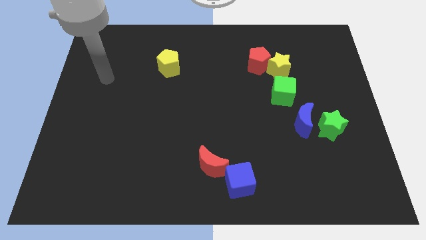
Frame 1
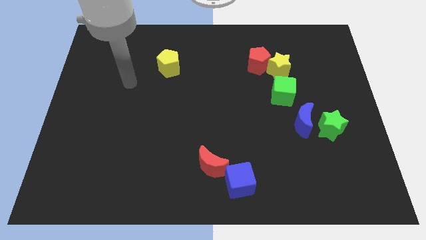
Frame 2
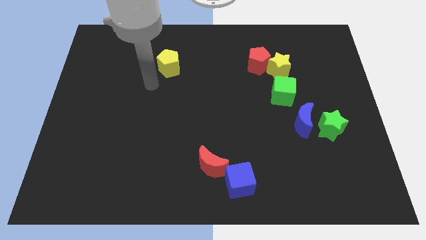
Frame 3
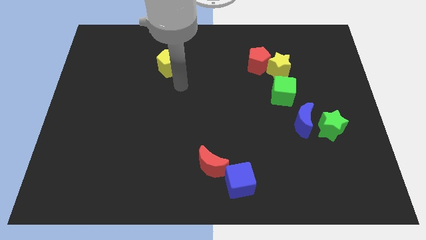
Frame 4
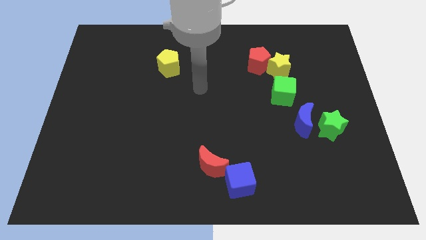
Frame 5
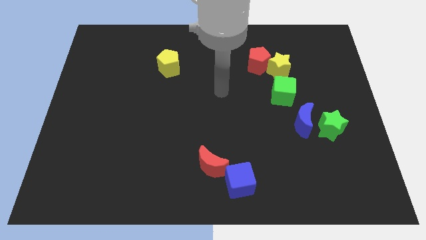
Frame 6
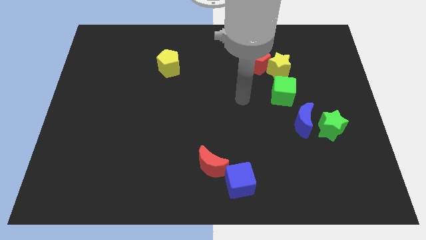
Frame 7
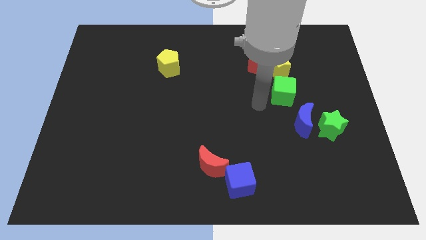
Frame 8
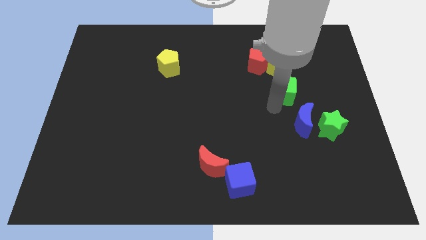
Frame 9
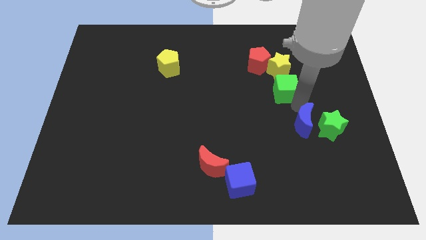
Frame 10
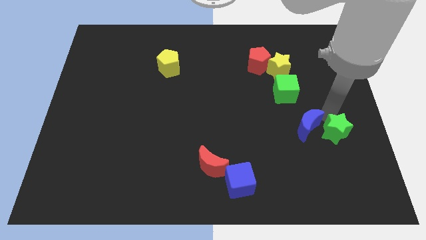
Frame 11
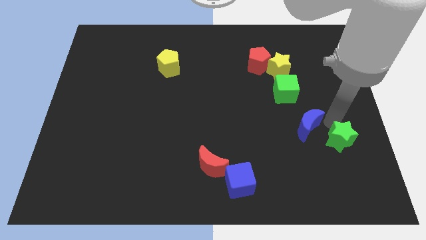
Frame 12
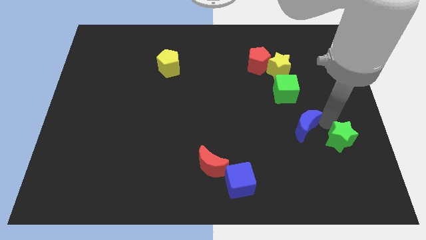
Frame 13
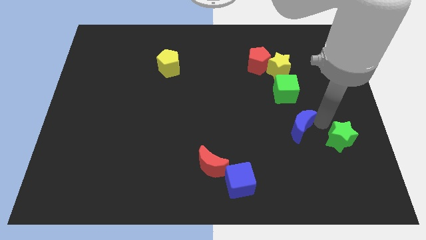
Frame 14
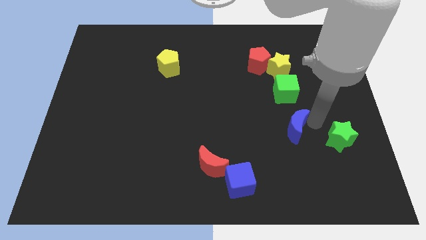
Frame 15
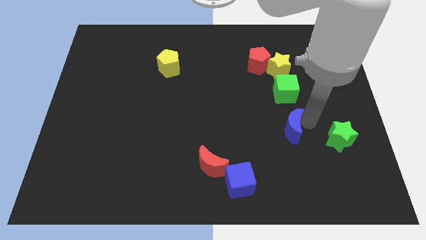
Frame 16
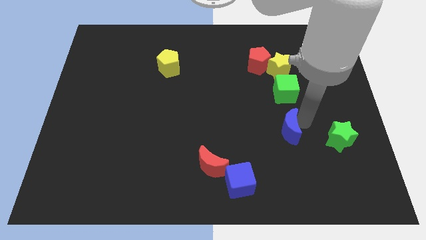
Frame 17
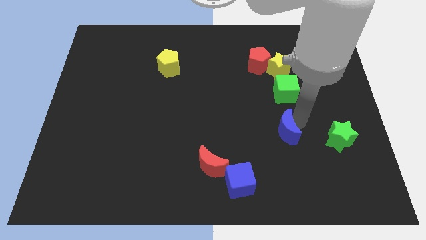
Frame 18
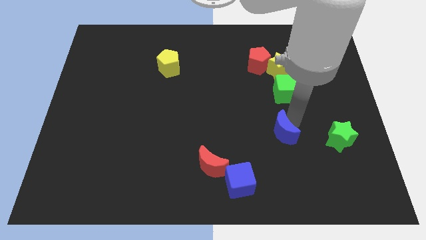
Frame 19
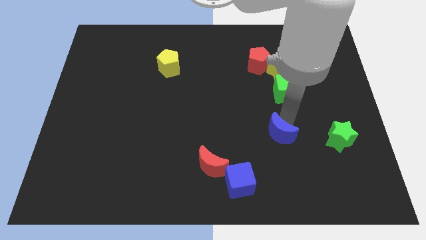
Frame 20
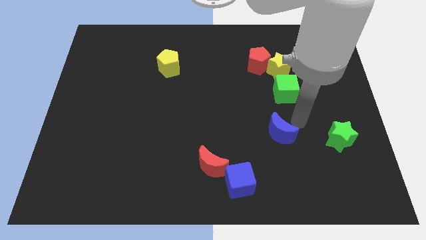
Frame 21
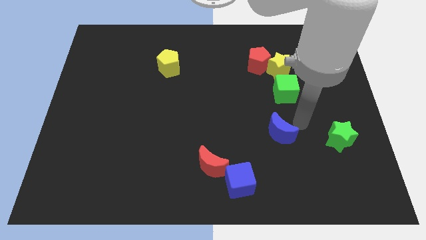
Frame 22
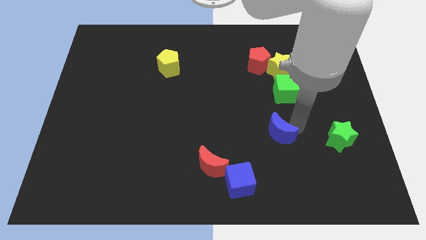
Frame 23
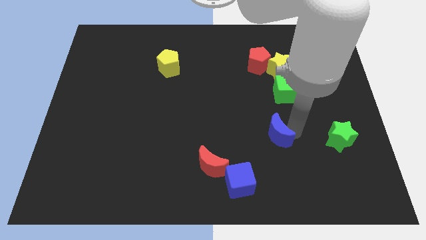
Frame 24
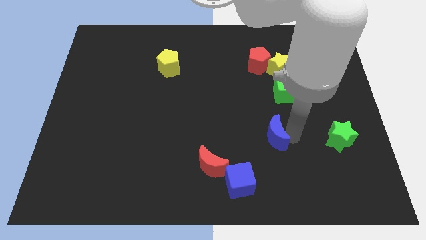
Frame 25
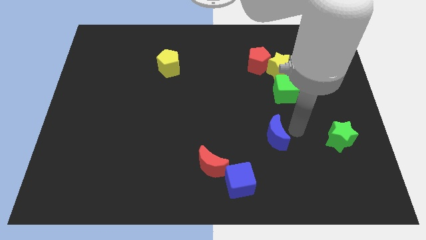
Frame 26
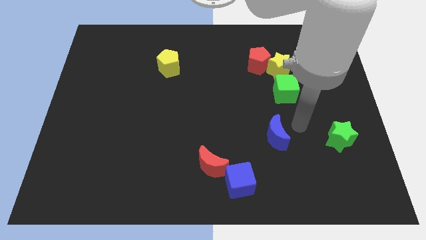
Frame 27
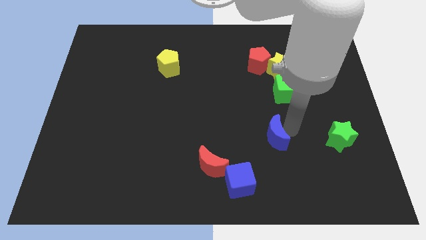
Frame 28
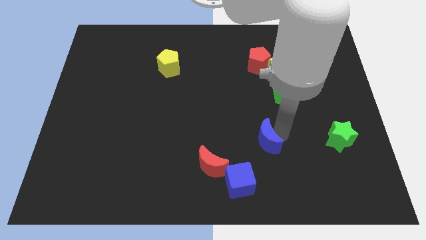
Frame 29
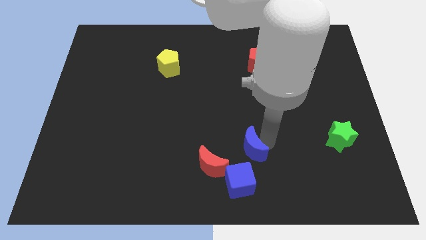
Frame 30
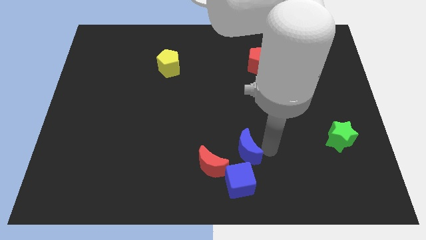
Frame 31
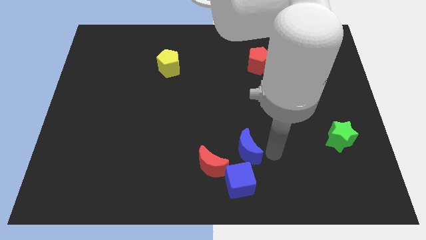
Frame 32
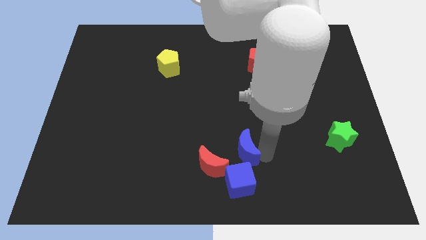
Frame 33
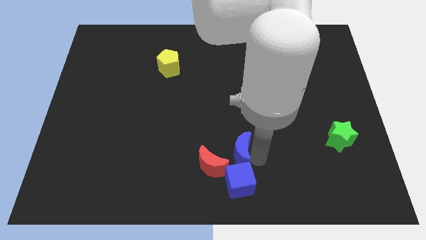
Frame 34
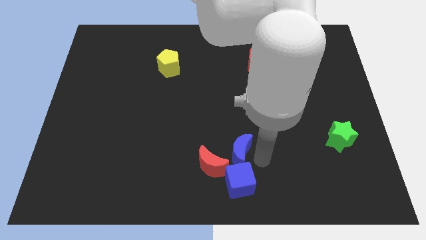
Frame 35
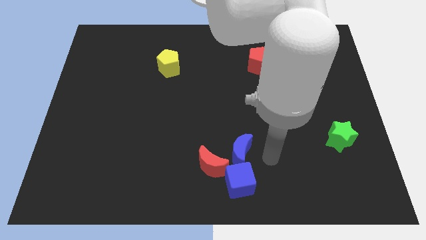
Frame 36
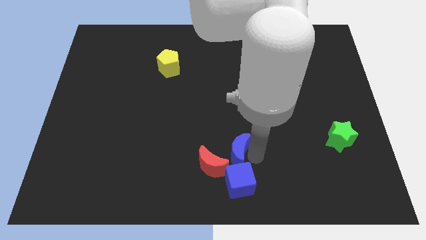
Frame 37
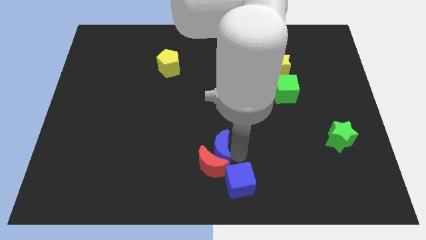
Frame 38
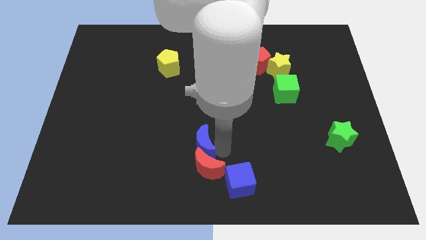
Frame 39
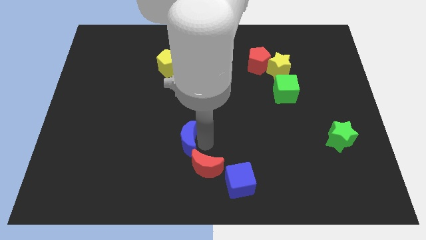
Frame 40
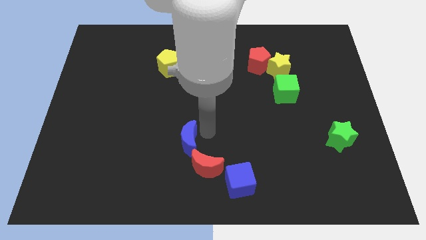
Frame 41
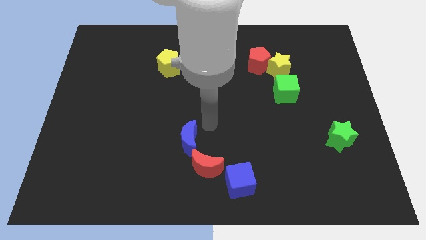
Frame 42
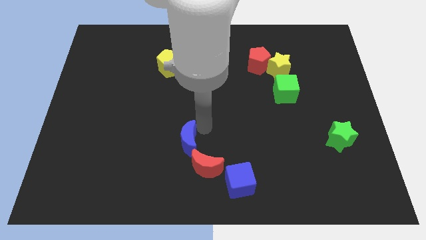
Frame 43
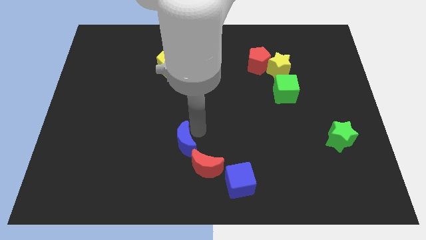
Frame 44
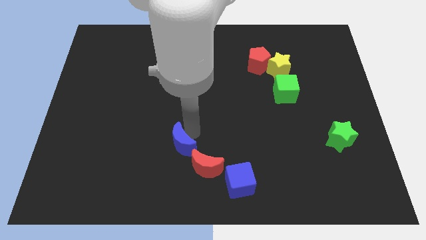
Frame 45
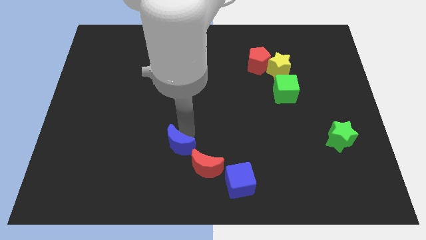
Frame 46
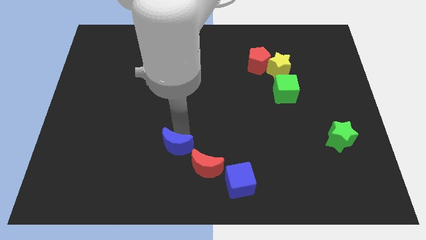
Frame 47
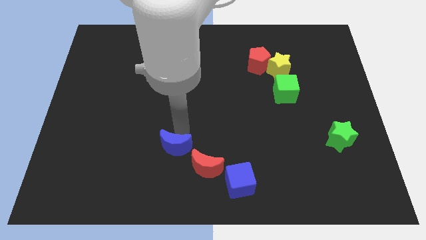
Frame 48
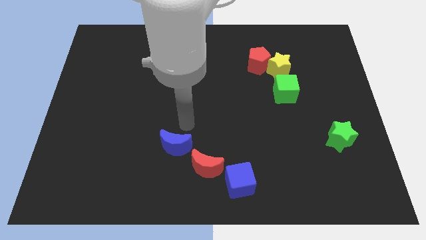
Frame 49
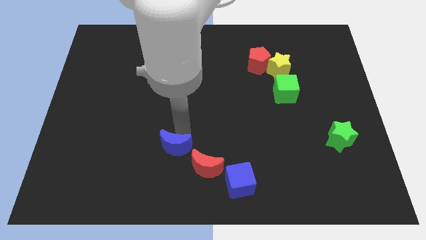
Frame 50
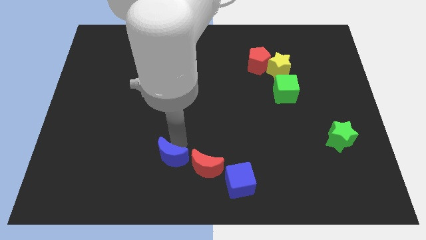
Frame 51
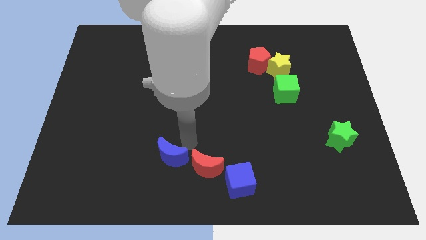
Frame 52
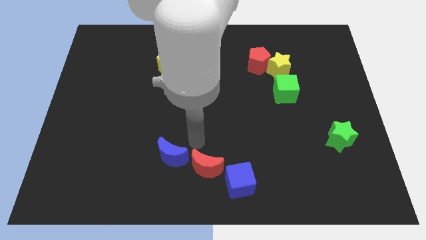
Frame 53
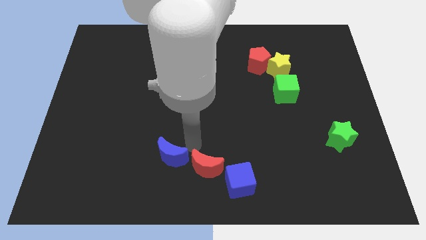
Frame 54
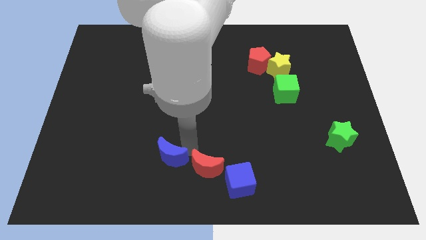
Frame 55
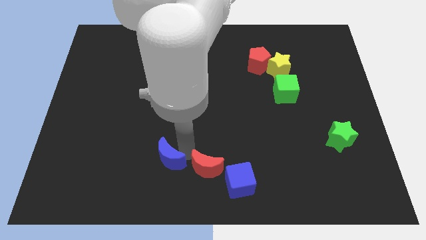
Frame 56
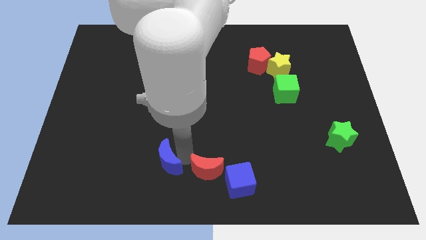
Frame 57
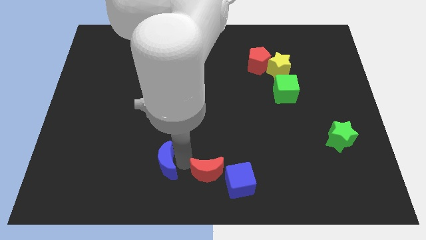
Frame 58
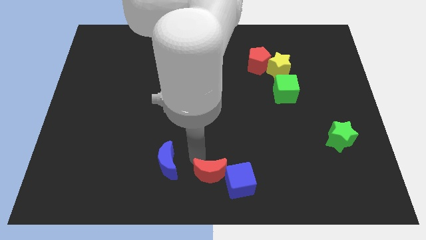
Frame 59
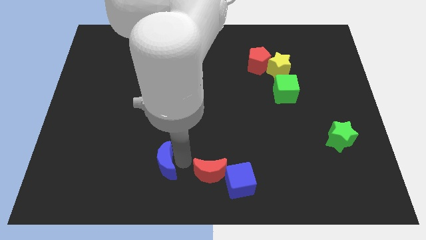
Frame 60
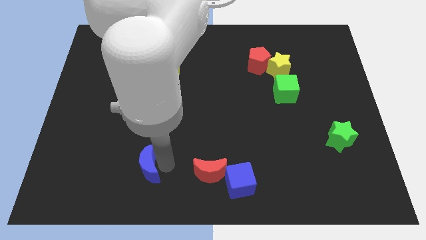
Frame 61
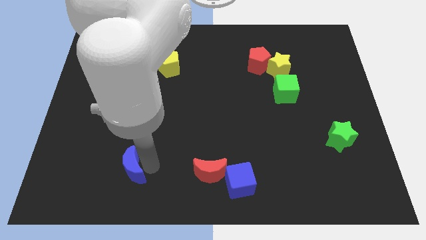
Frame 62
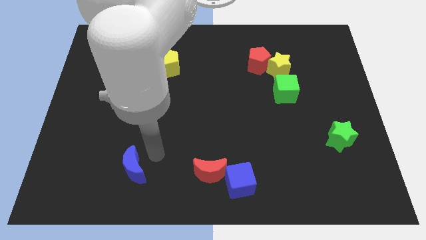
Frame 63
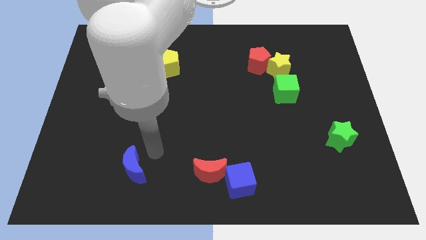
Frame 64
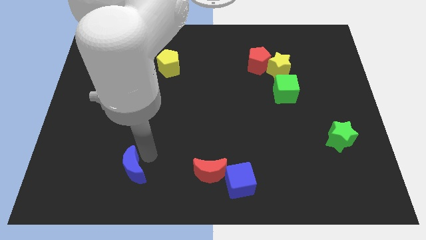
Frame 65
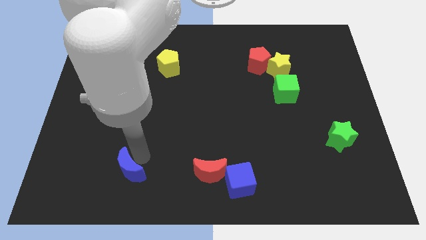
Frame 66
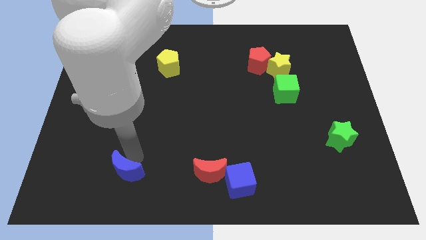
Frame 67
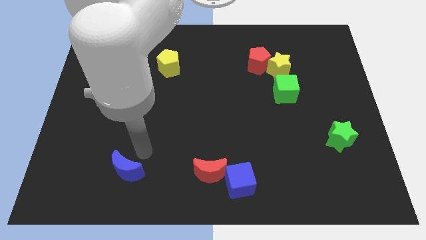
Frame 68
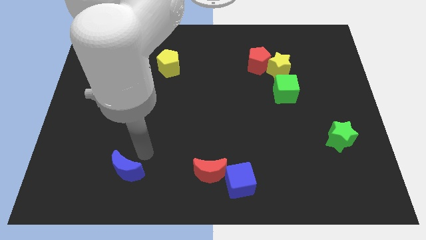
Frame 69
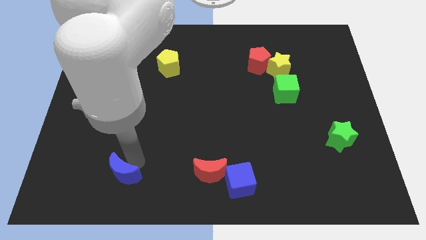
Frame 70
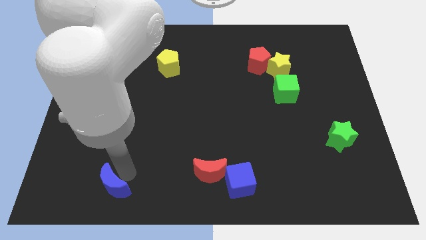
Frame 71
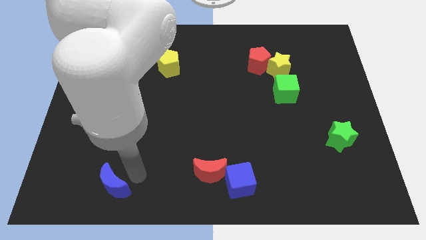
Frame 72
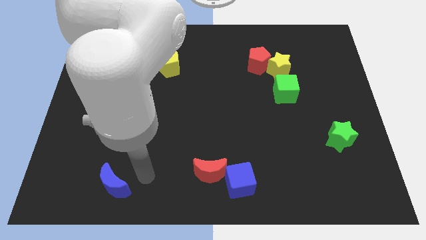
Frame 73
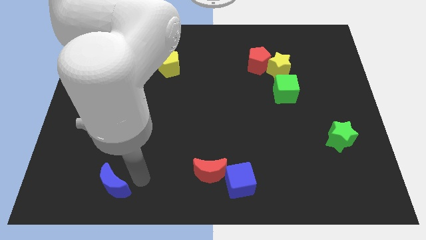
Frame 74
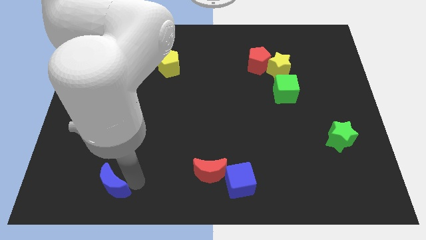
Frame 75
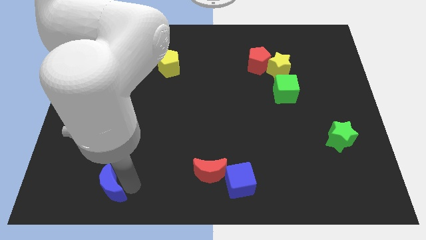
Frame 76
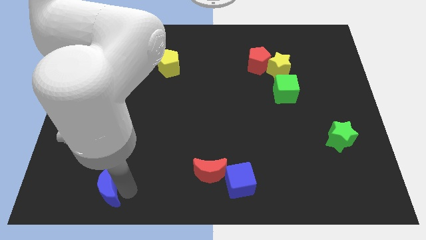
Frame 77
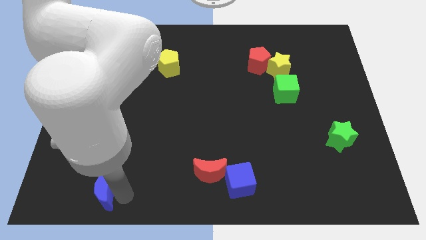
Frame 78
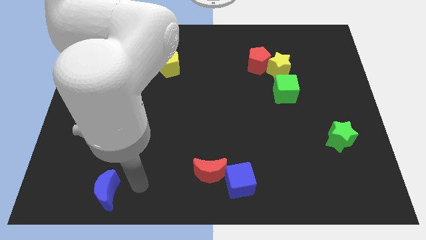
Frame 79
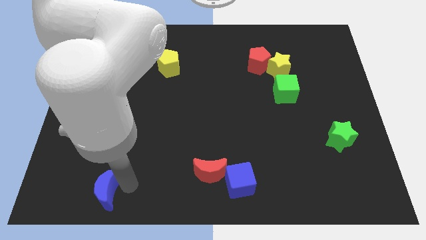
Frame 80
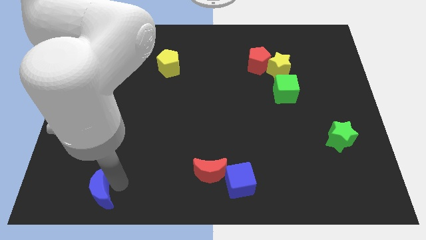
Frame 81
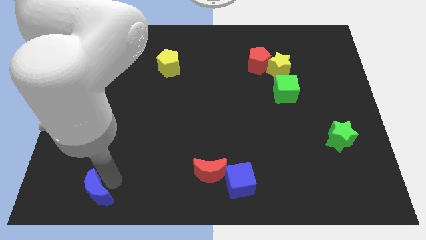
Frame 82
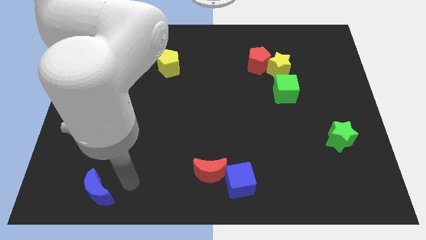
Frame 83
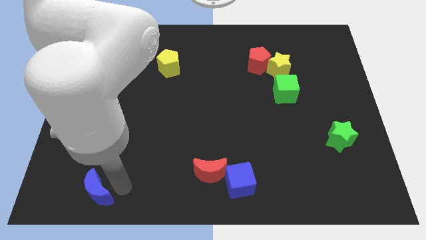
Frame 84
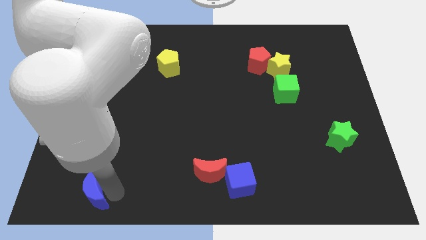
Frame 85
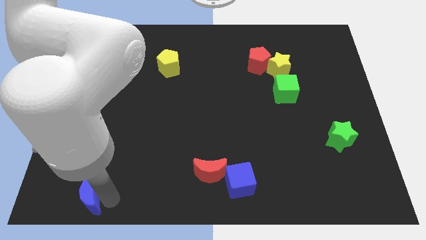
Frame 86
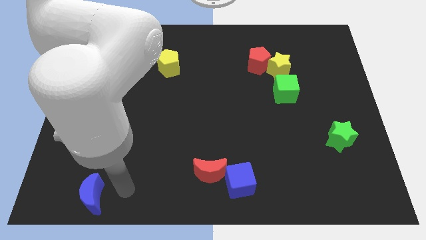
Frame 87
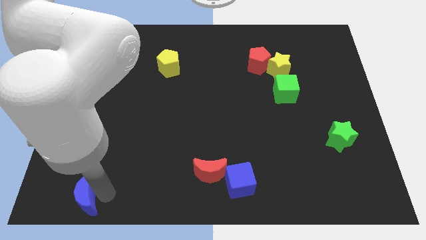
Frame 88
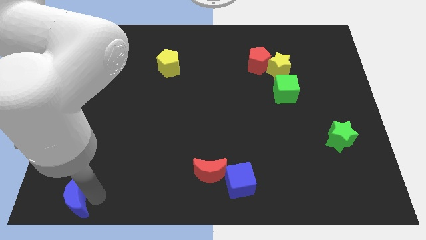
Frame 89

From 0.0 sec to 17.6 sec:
put the blue moon to the bottom left of the board
